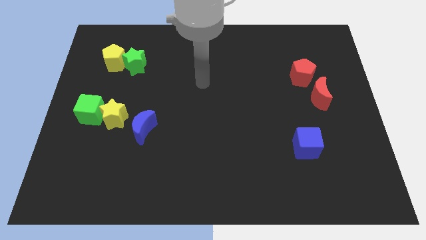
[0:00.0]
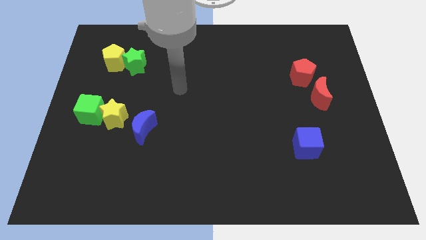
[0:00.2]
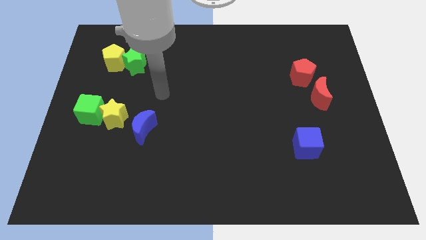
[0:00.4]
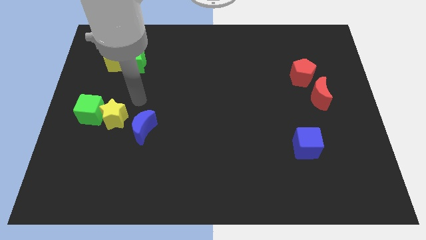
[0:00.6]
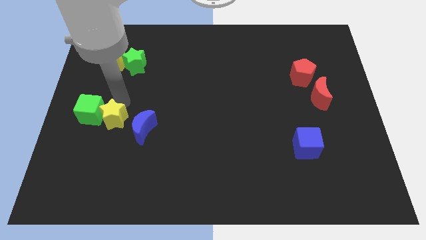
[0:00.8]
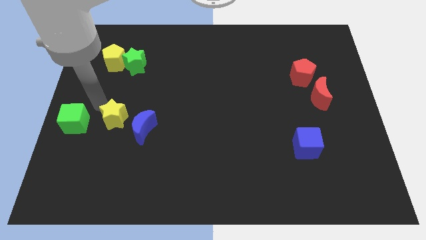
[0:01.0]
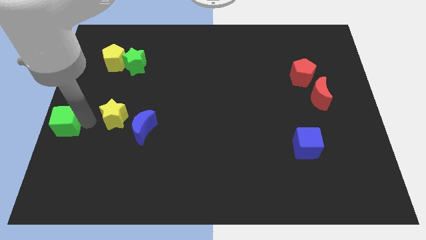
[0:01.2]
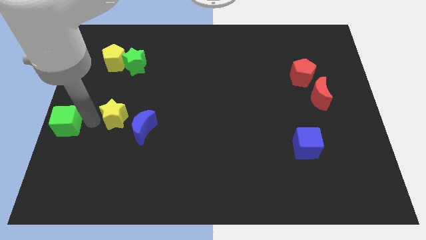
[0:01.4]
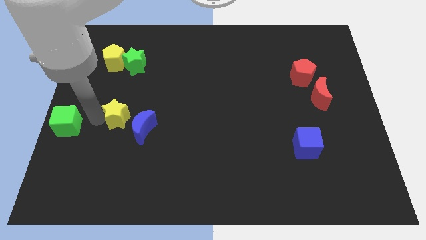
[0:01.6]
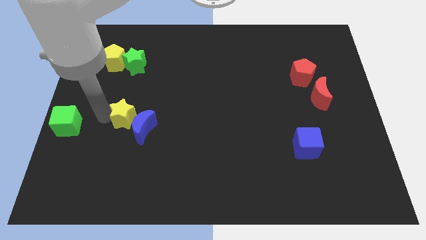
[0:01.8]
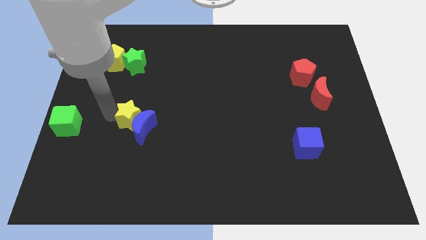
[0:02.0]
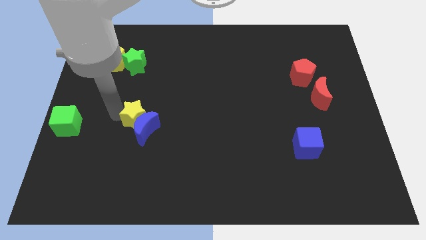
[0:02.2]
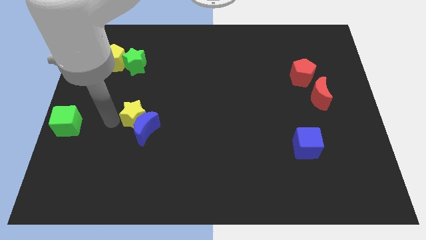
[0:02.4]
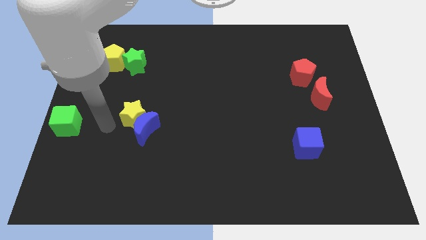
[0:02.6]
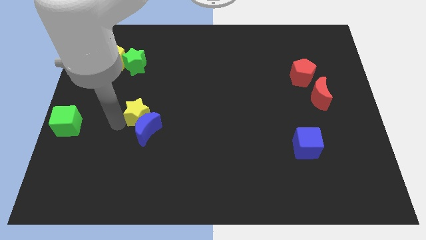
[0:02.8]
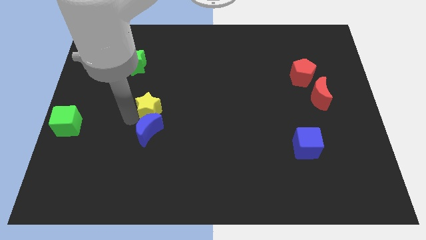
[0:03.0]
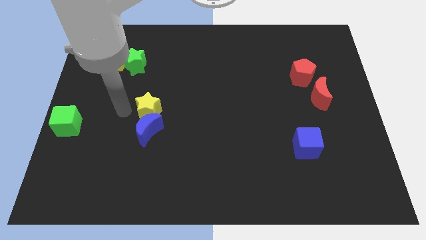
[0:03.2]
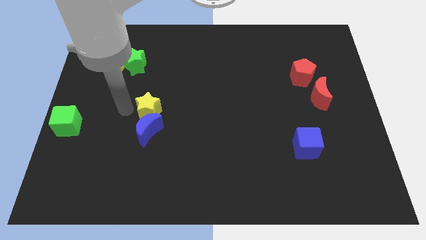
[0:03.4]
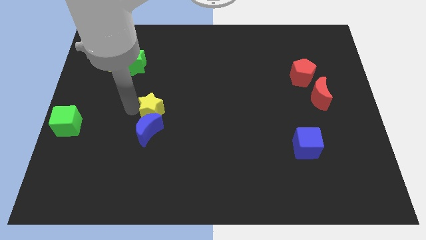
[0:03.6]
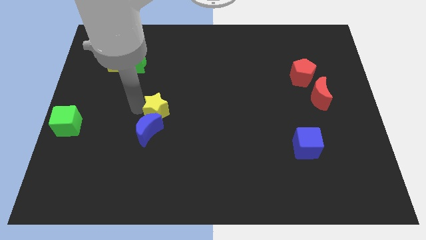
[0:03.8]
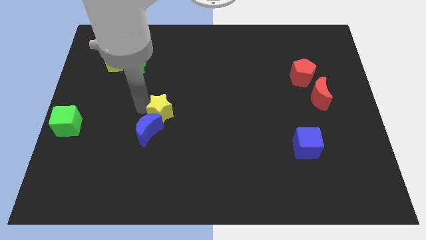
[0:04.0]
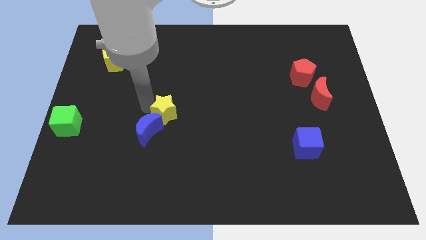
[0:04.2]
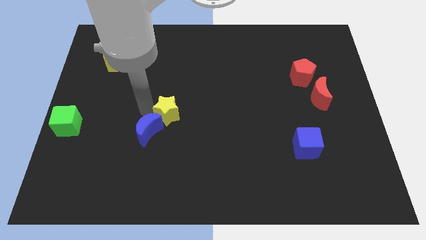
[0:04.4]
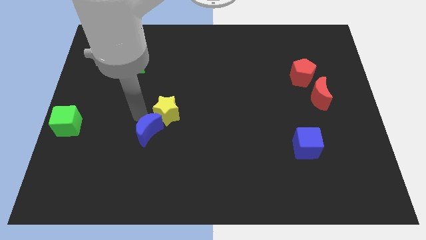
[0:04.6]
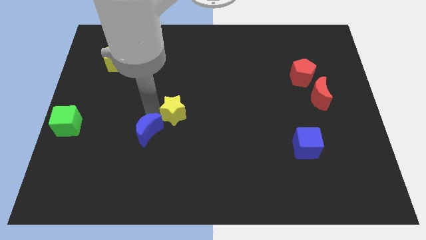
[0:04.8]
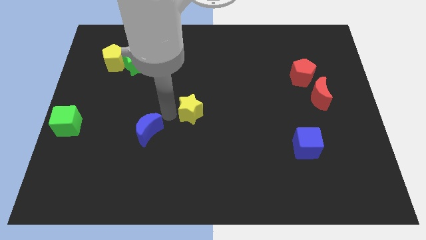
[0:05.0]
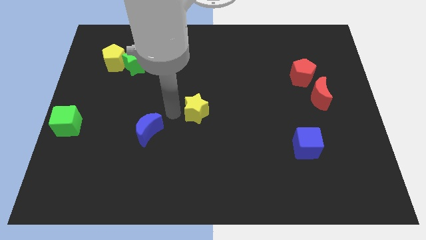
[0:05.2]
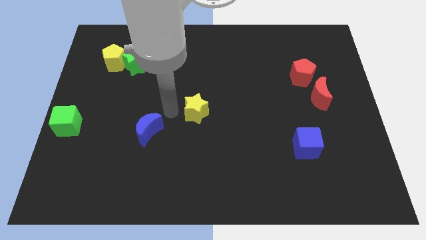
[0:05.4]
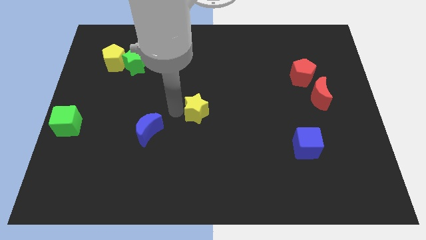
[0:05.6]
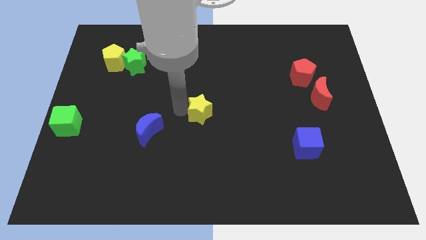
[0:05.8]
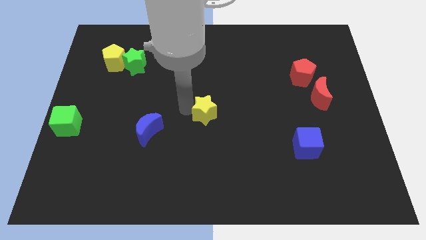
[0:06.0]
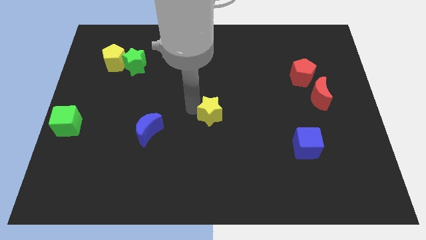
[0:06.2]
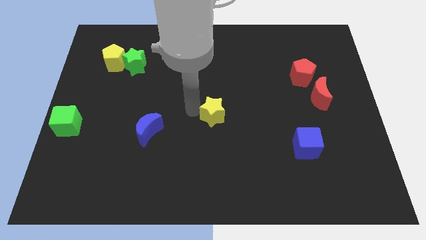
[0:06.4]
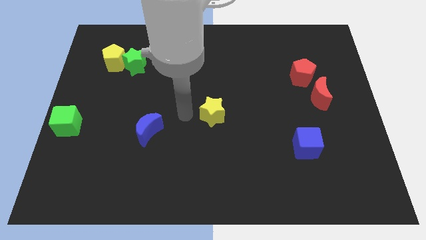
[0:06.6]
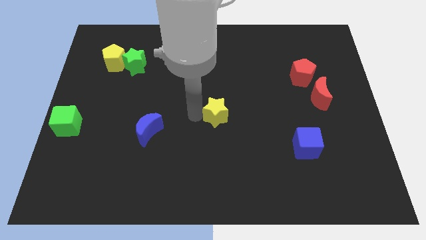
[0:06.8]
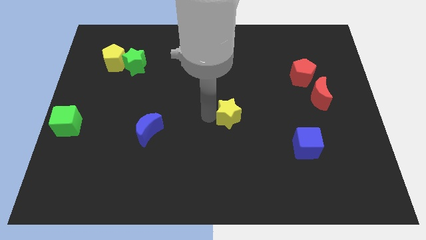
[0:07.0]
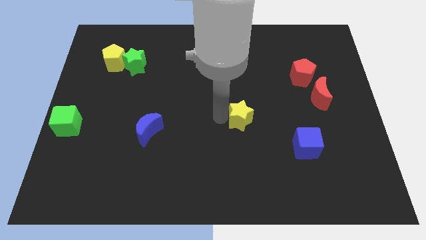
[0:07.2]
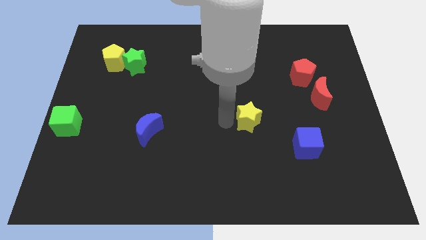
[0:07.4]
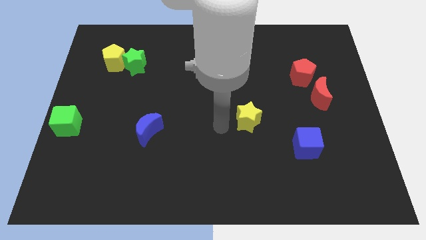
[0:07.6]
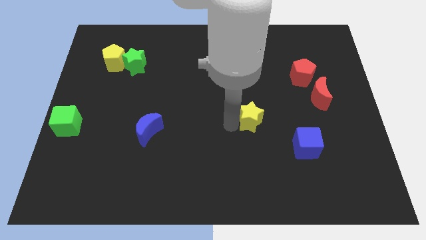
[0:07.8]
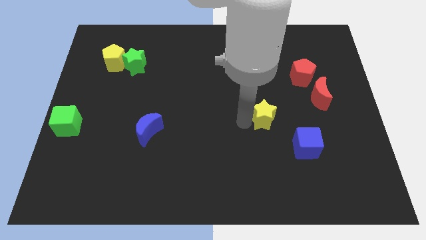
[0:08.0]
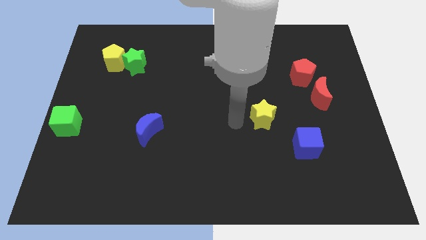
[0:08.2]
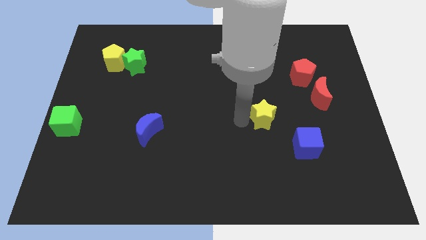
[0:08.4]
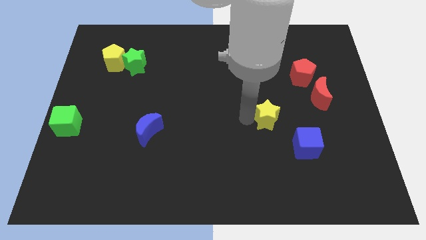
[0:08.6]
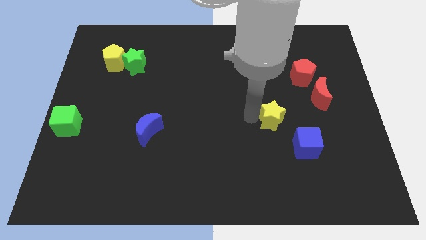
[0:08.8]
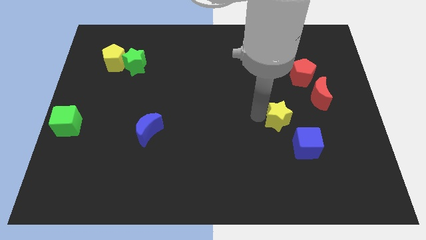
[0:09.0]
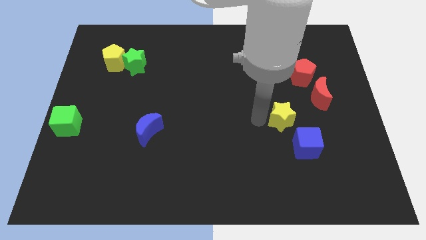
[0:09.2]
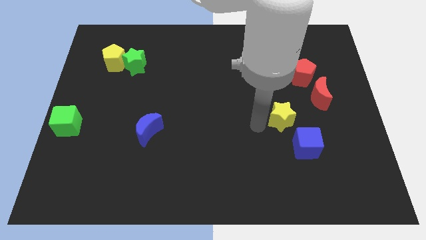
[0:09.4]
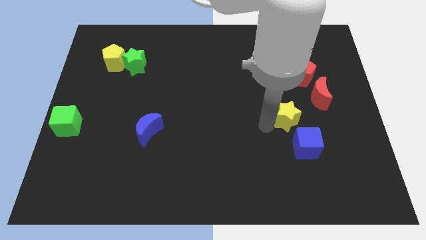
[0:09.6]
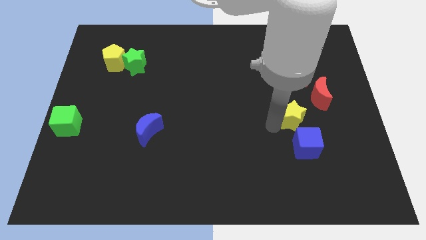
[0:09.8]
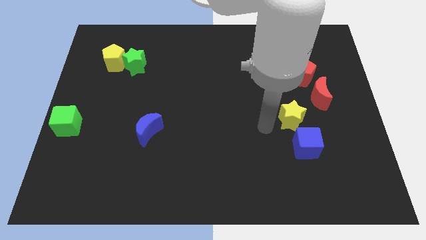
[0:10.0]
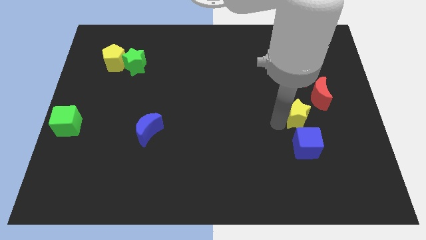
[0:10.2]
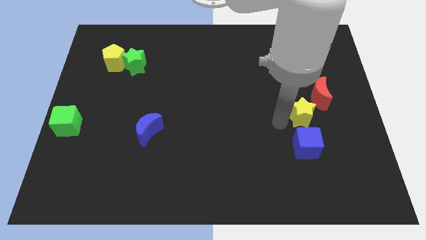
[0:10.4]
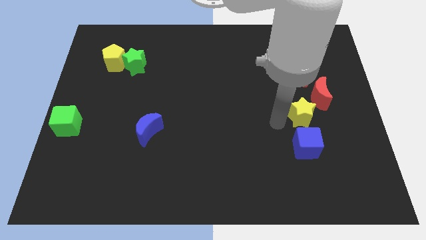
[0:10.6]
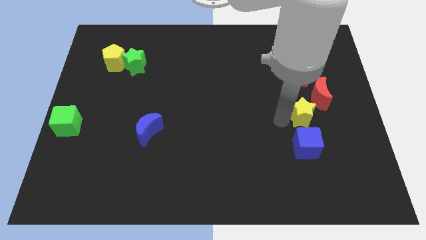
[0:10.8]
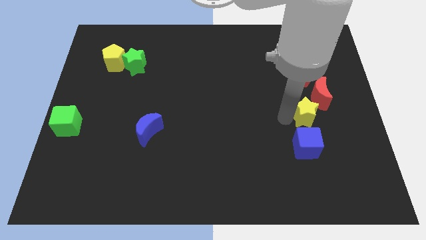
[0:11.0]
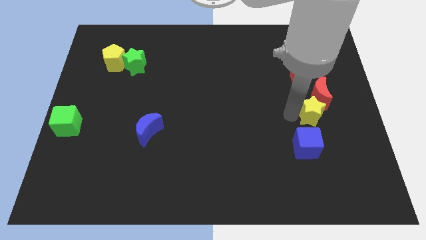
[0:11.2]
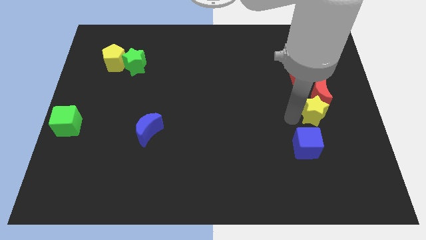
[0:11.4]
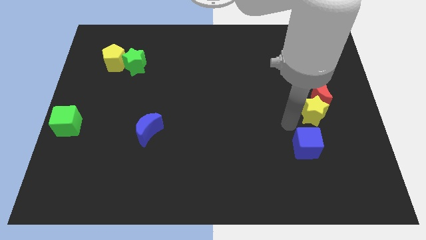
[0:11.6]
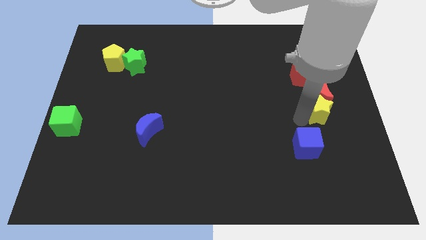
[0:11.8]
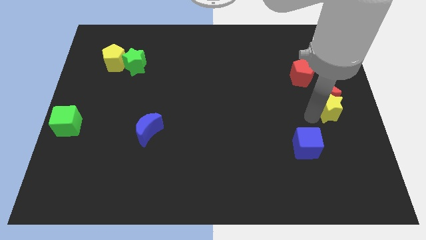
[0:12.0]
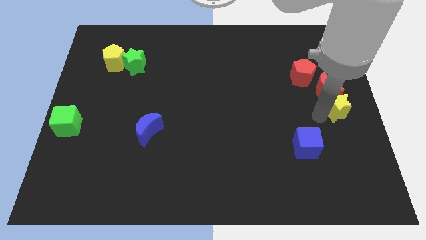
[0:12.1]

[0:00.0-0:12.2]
slide the yellow star to the bottom right side of the red pentagon

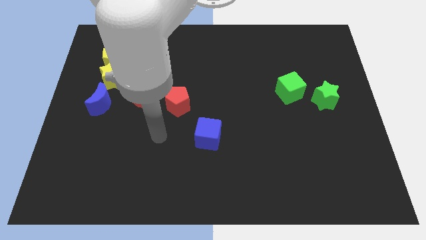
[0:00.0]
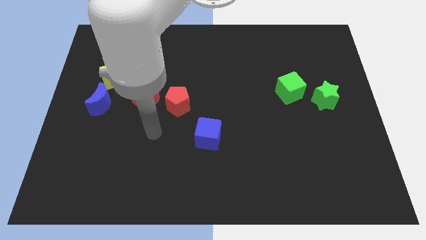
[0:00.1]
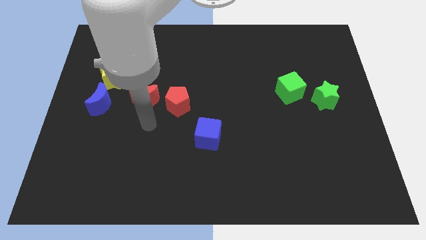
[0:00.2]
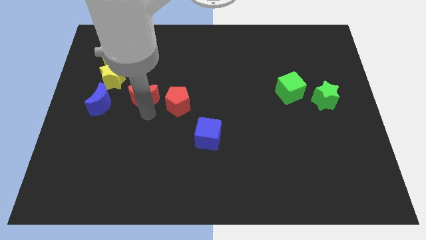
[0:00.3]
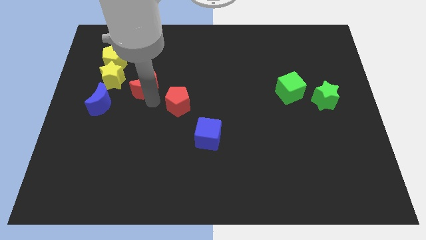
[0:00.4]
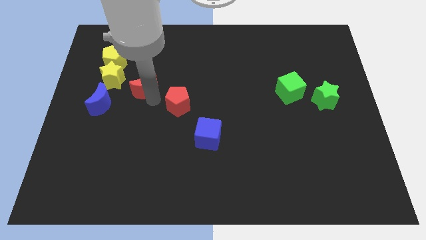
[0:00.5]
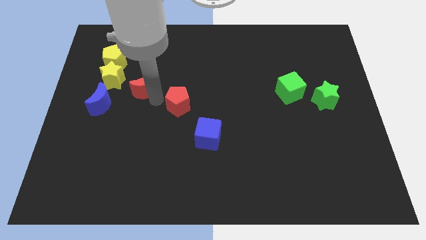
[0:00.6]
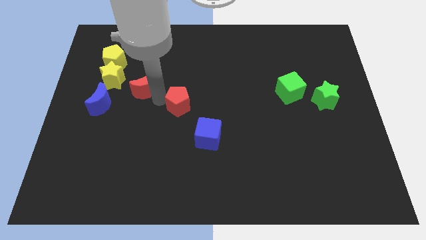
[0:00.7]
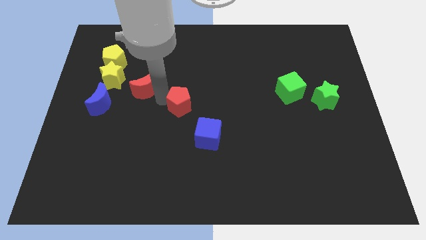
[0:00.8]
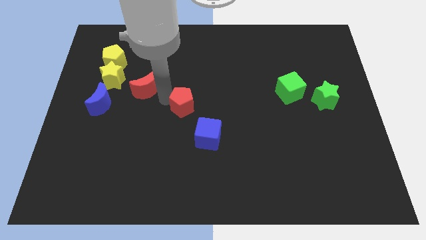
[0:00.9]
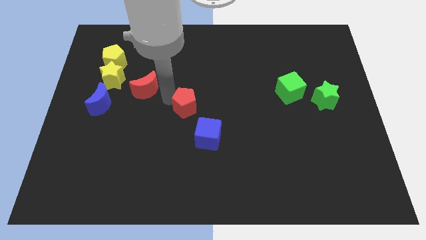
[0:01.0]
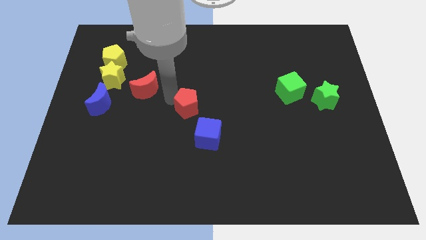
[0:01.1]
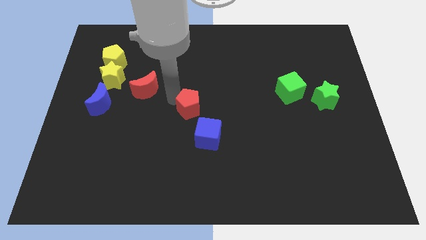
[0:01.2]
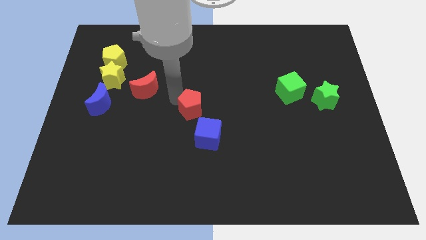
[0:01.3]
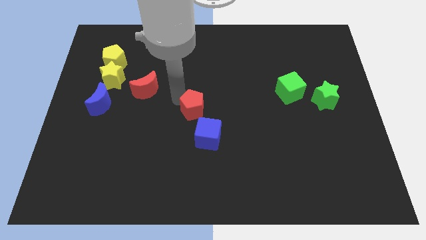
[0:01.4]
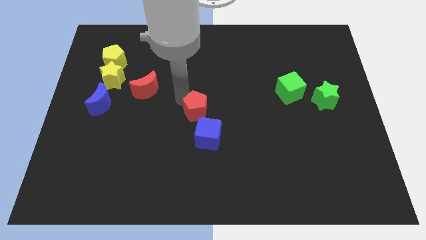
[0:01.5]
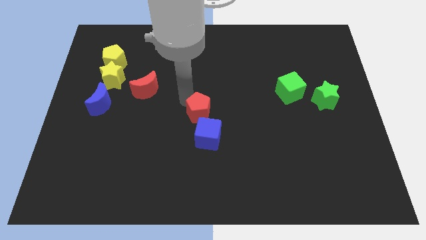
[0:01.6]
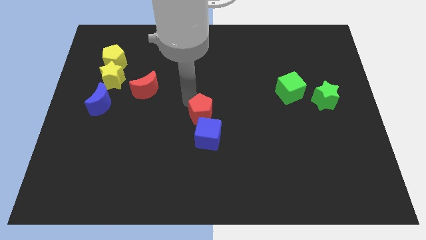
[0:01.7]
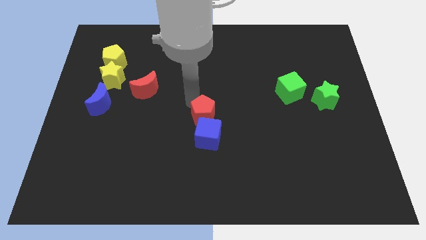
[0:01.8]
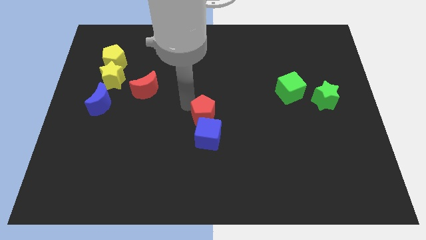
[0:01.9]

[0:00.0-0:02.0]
push the red pentagon to the top right side of the blue cube
